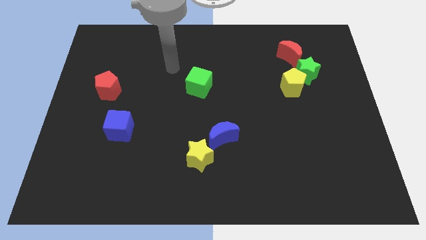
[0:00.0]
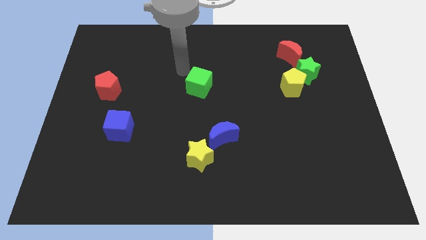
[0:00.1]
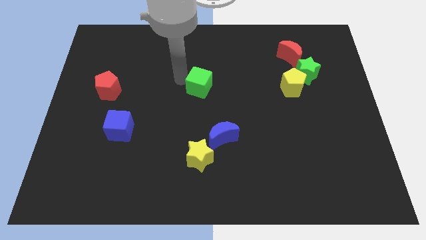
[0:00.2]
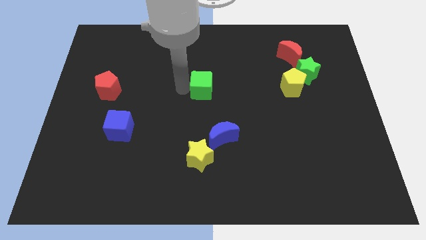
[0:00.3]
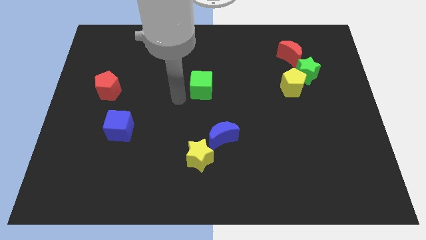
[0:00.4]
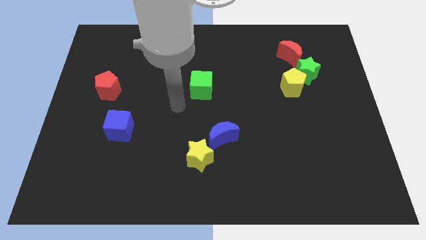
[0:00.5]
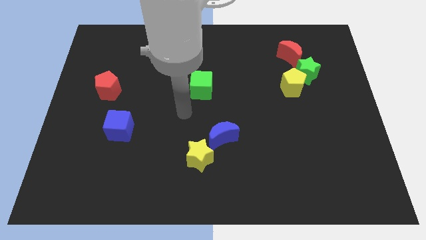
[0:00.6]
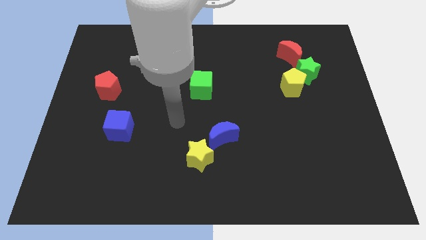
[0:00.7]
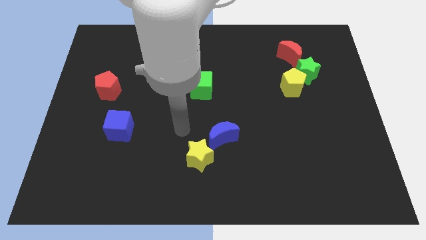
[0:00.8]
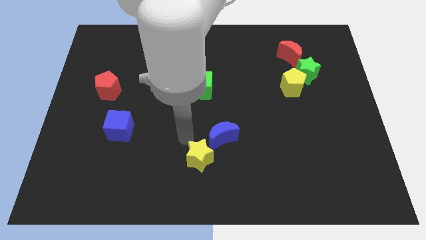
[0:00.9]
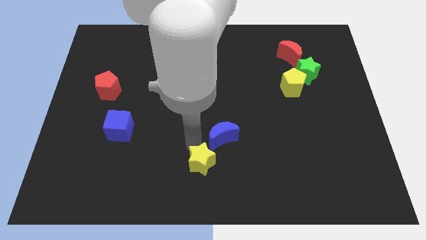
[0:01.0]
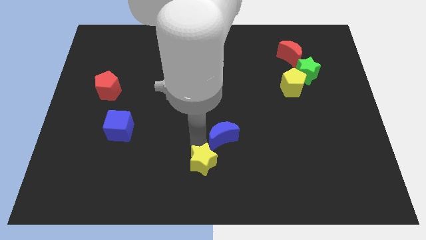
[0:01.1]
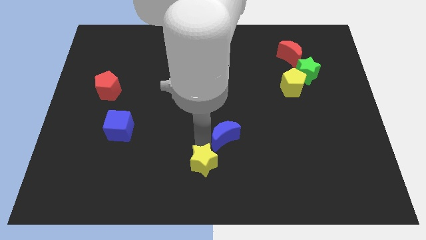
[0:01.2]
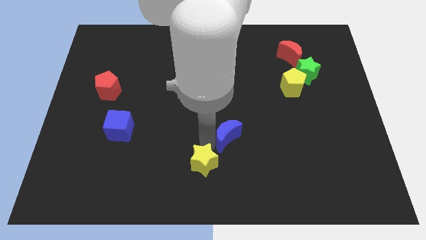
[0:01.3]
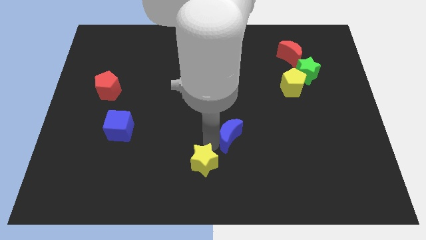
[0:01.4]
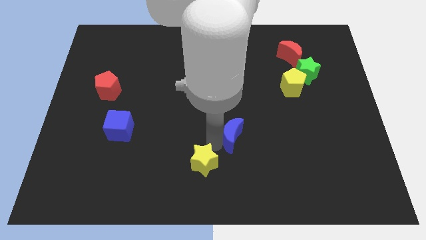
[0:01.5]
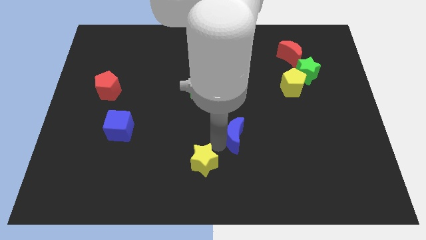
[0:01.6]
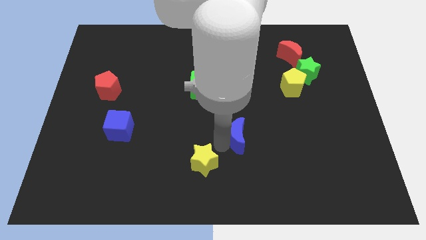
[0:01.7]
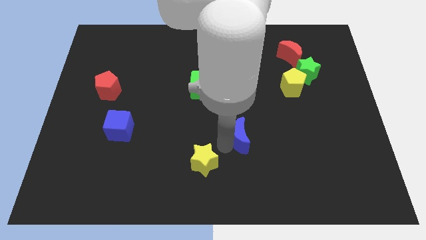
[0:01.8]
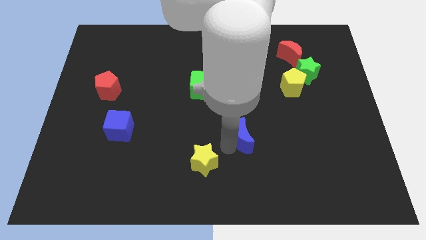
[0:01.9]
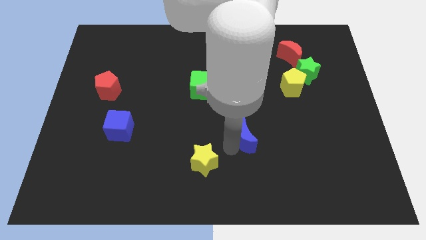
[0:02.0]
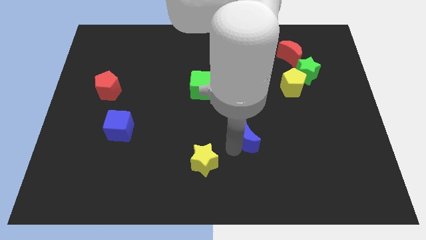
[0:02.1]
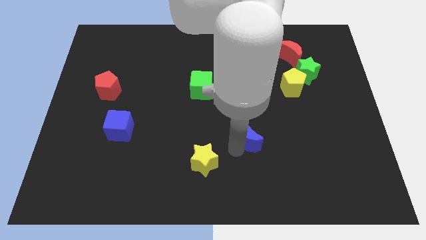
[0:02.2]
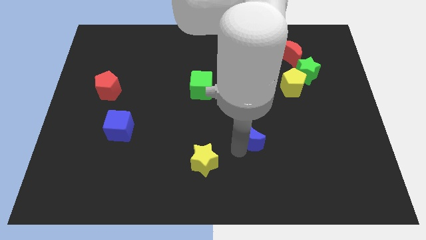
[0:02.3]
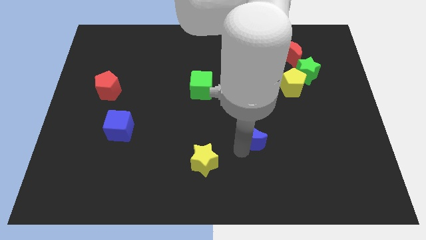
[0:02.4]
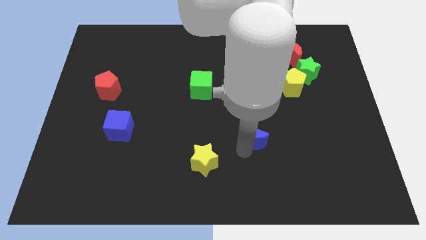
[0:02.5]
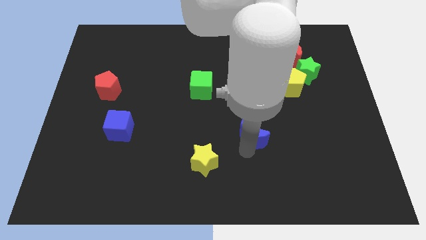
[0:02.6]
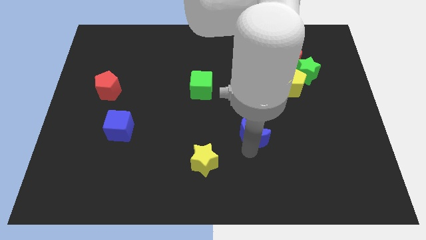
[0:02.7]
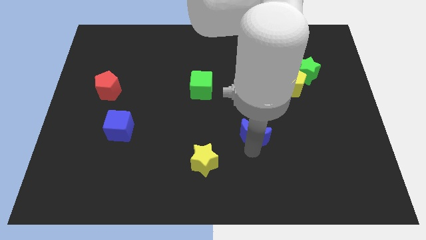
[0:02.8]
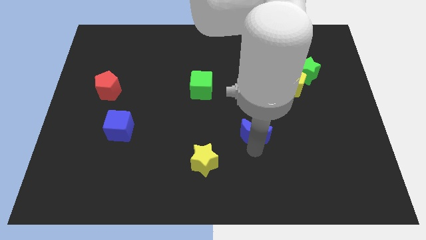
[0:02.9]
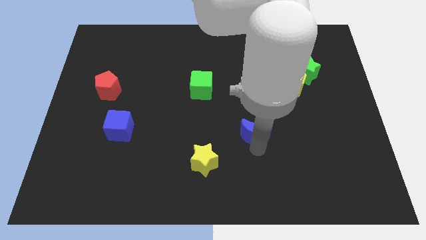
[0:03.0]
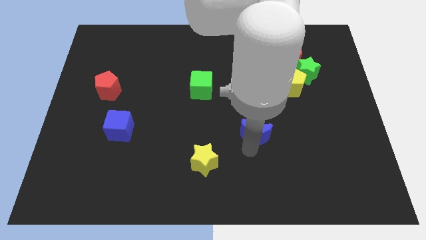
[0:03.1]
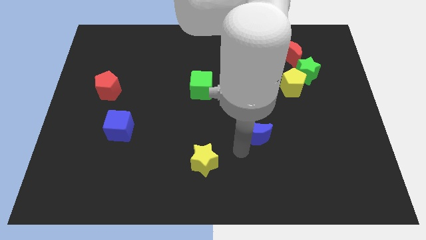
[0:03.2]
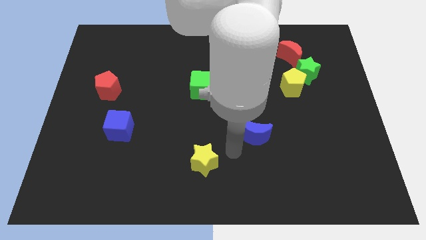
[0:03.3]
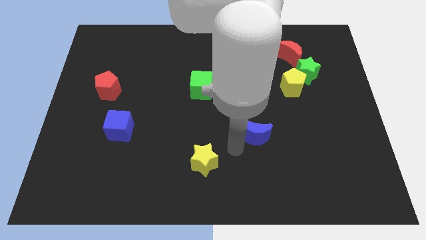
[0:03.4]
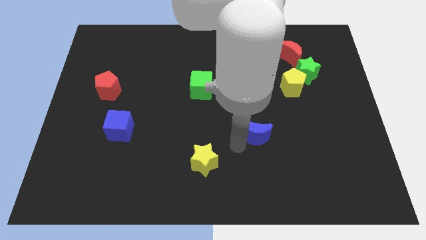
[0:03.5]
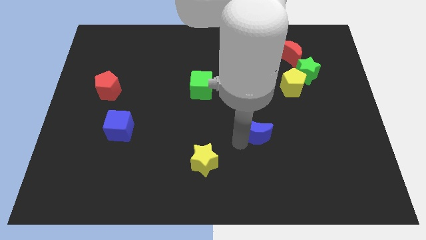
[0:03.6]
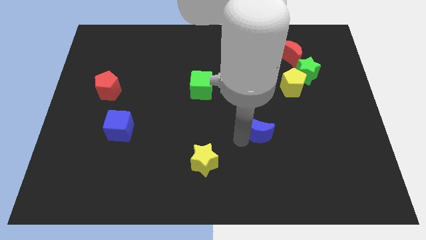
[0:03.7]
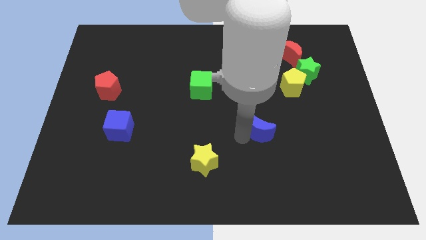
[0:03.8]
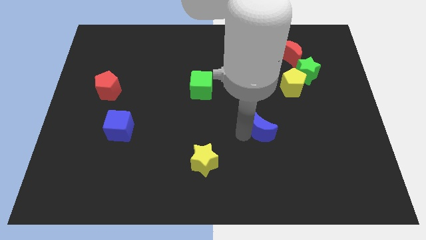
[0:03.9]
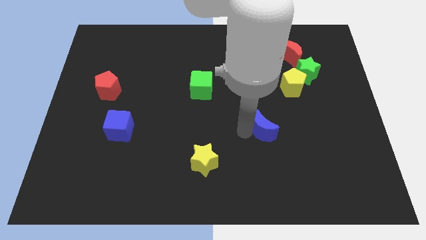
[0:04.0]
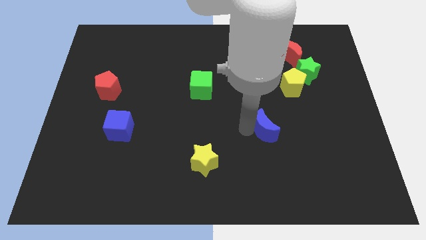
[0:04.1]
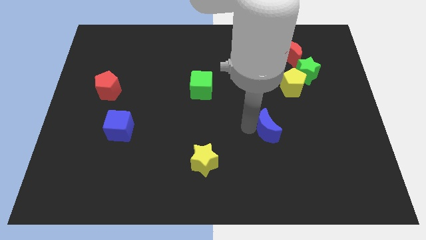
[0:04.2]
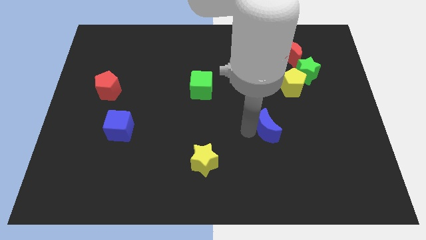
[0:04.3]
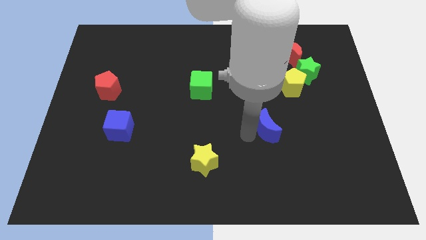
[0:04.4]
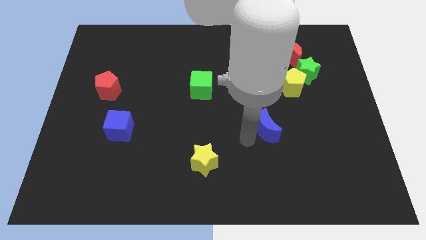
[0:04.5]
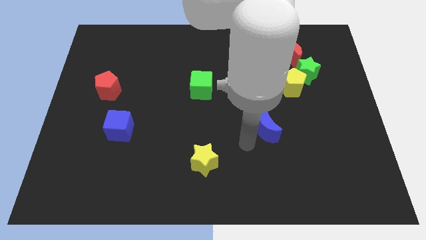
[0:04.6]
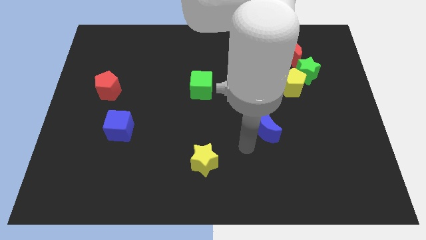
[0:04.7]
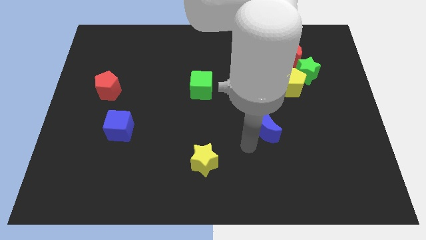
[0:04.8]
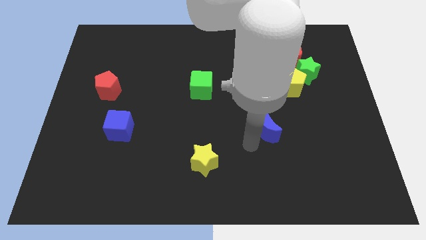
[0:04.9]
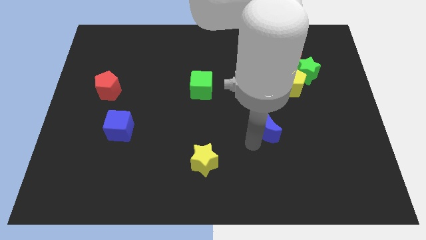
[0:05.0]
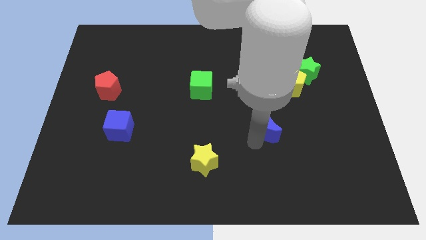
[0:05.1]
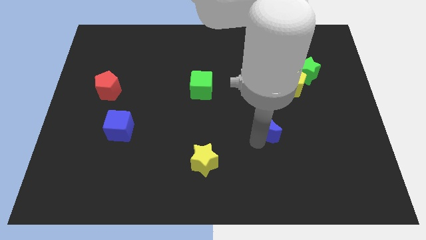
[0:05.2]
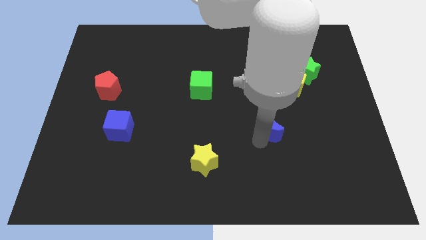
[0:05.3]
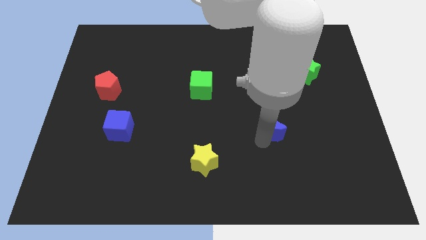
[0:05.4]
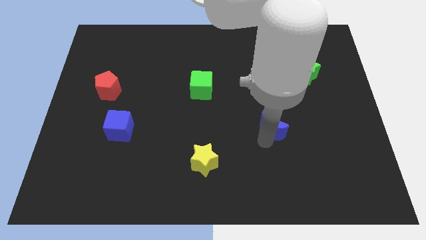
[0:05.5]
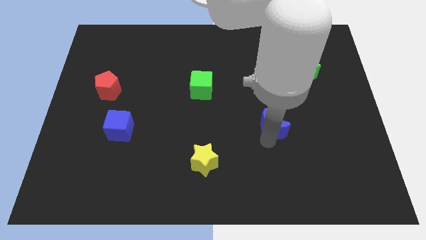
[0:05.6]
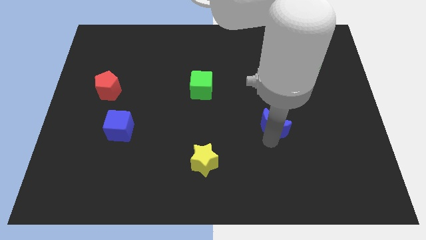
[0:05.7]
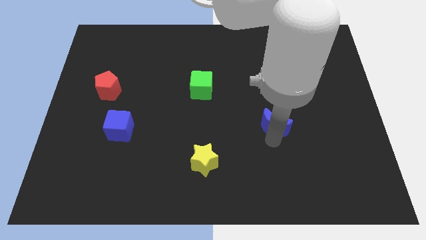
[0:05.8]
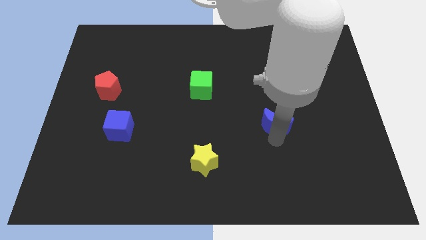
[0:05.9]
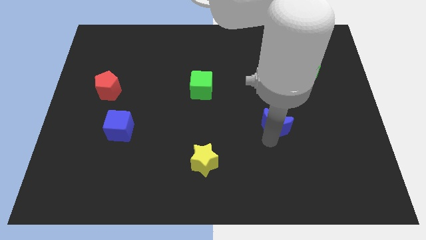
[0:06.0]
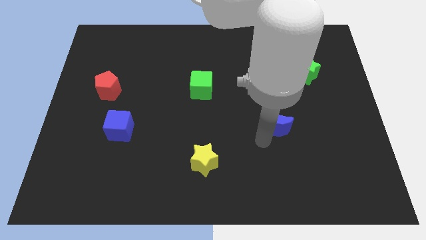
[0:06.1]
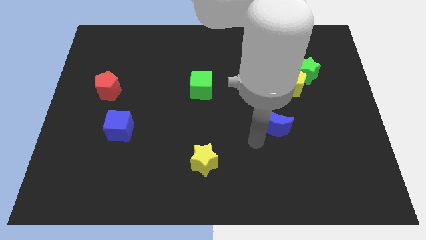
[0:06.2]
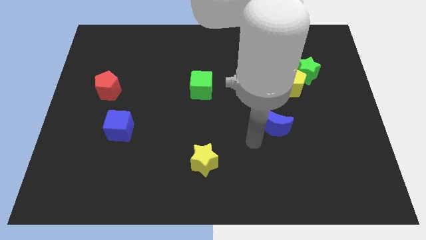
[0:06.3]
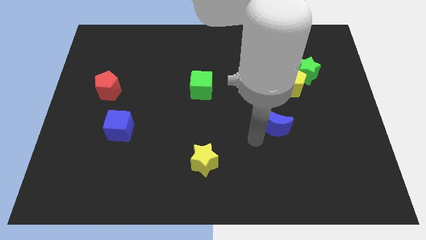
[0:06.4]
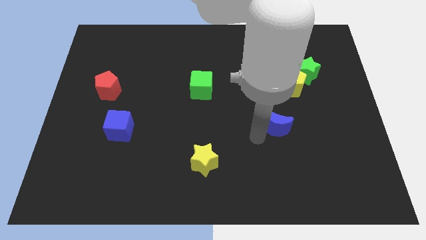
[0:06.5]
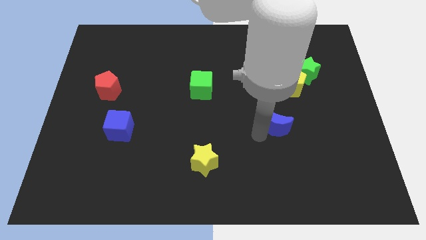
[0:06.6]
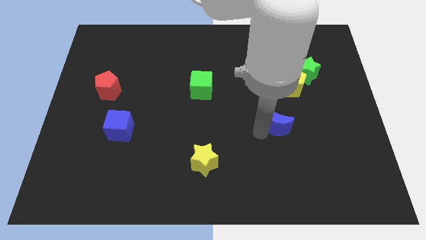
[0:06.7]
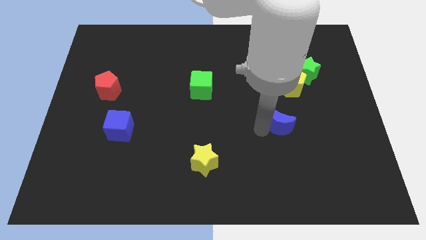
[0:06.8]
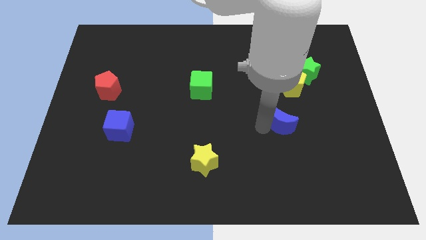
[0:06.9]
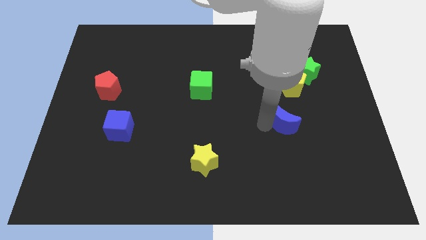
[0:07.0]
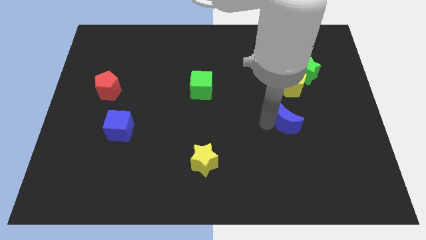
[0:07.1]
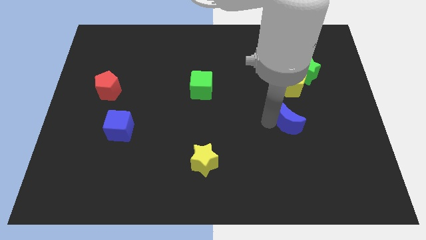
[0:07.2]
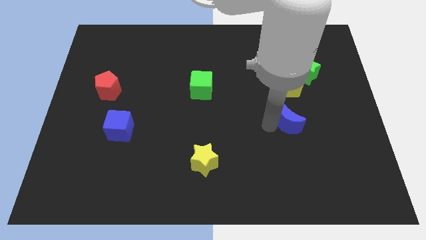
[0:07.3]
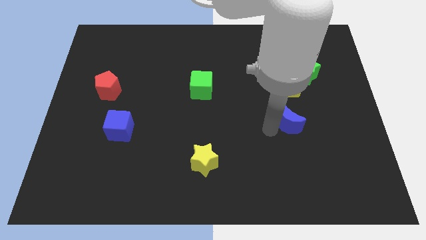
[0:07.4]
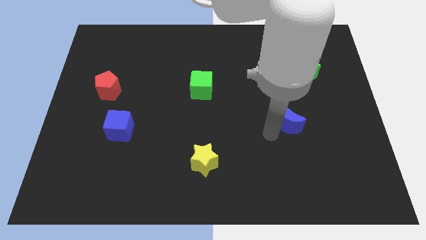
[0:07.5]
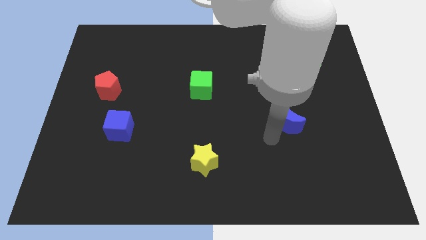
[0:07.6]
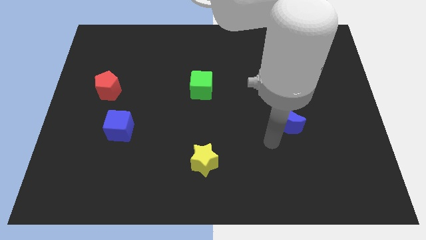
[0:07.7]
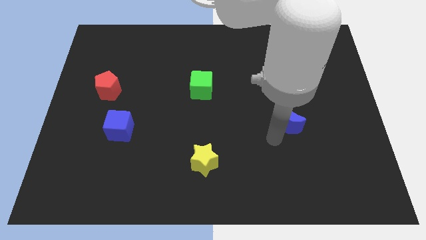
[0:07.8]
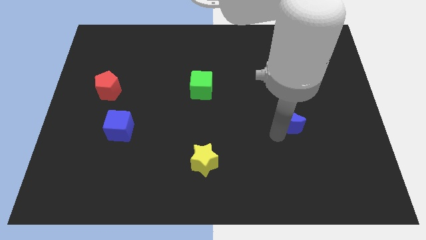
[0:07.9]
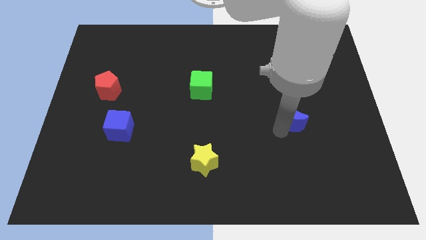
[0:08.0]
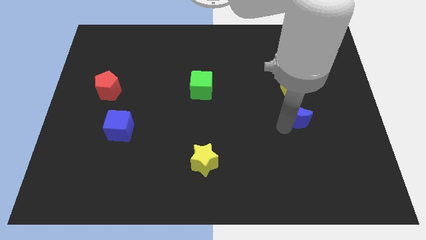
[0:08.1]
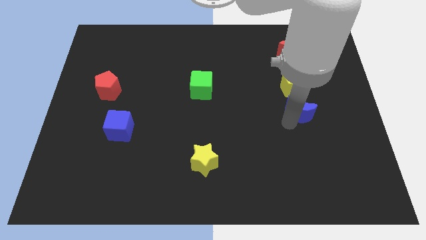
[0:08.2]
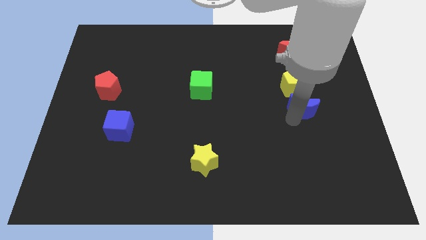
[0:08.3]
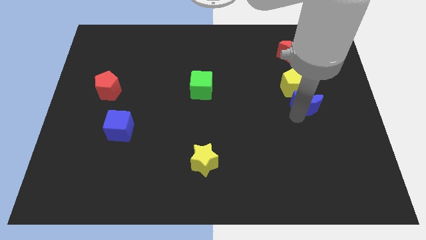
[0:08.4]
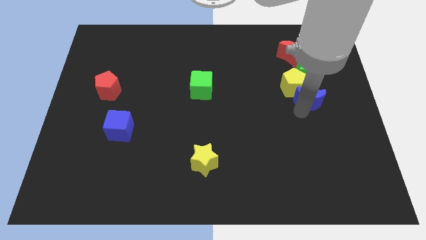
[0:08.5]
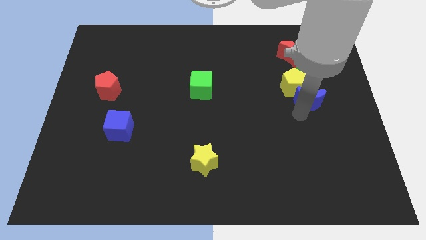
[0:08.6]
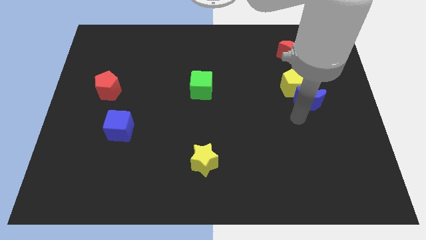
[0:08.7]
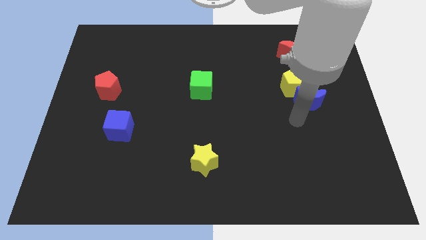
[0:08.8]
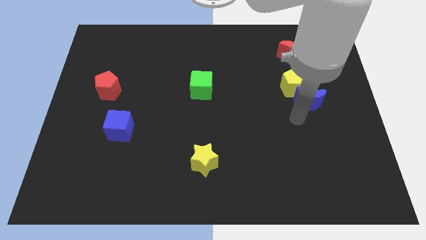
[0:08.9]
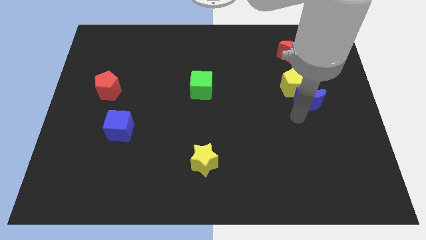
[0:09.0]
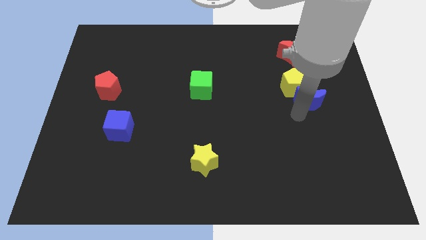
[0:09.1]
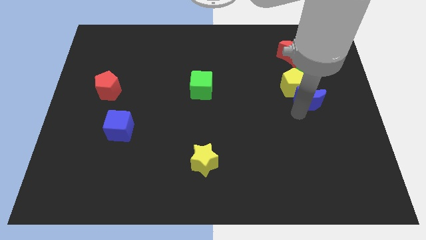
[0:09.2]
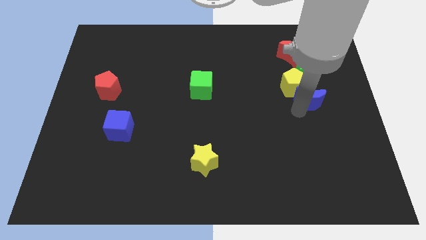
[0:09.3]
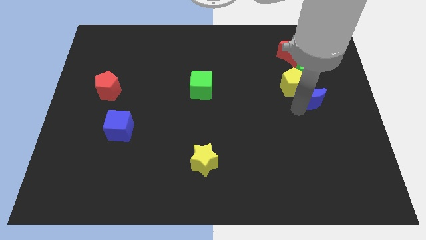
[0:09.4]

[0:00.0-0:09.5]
slide the blue moon upwards and right
